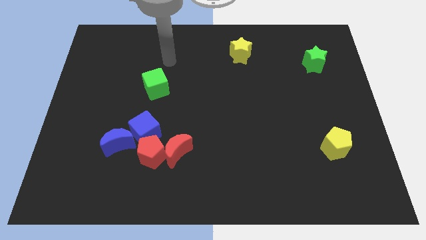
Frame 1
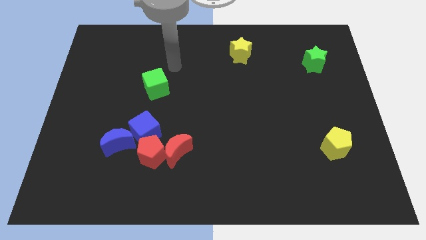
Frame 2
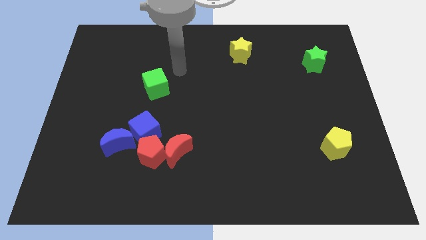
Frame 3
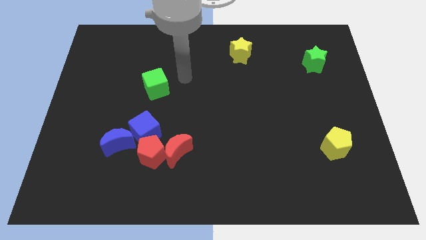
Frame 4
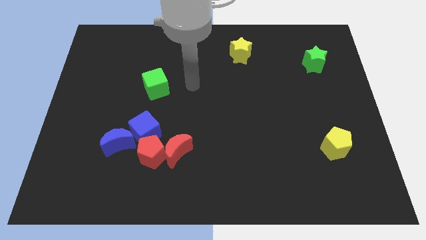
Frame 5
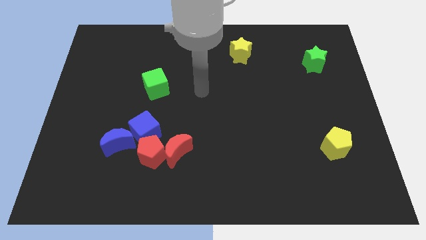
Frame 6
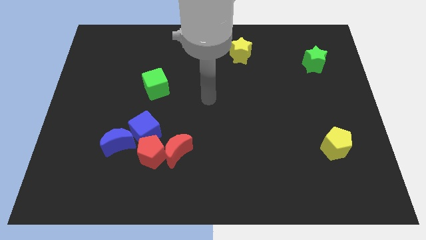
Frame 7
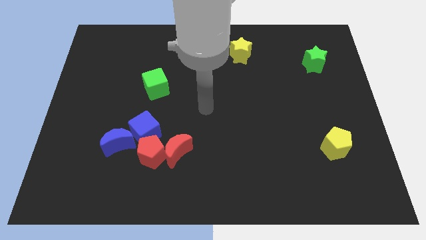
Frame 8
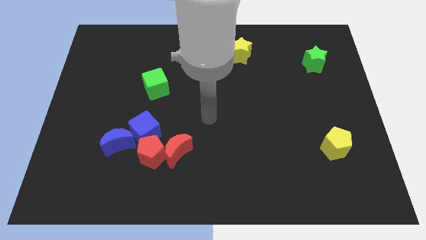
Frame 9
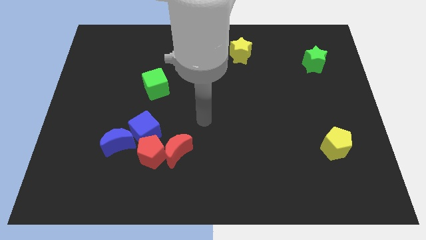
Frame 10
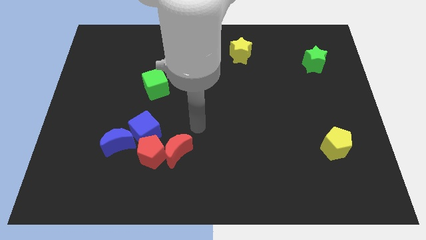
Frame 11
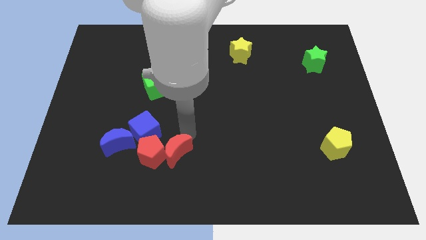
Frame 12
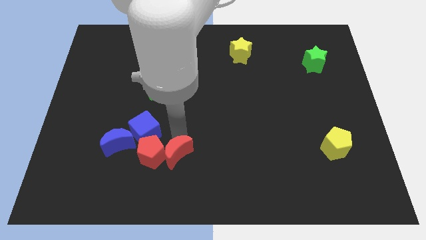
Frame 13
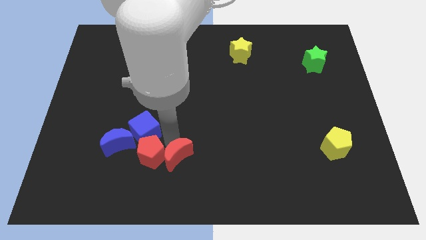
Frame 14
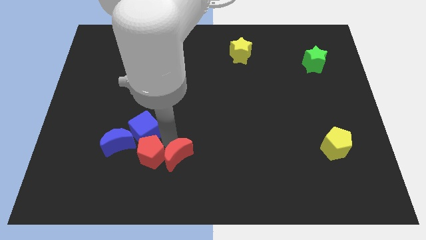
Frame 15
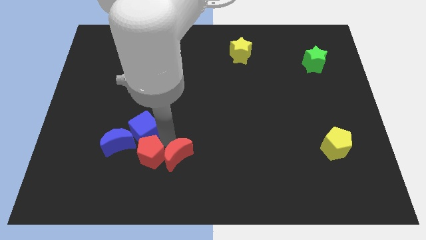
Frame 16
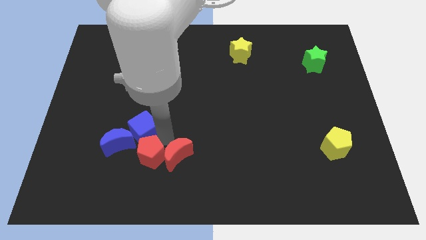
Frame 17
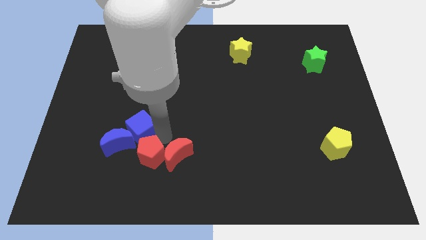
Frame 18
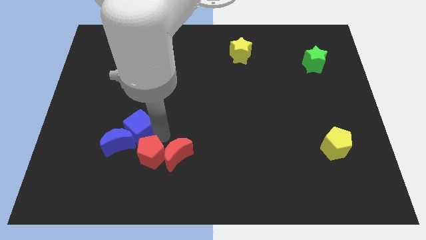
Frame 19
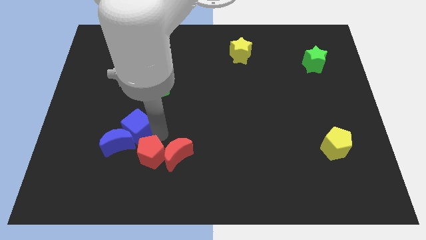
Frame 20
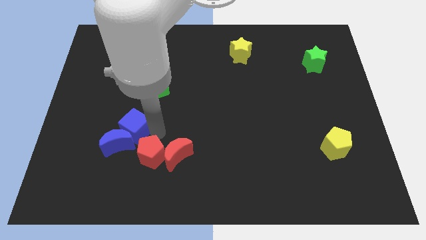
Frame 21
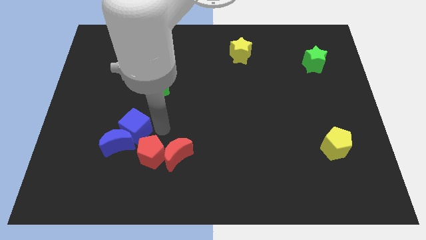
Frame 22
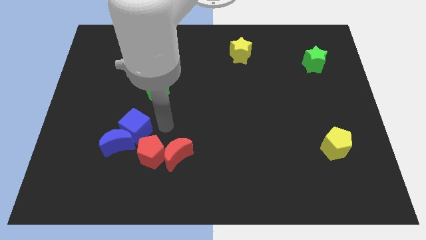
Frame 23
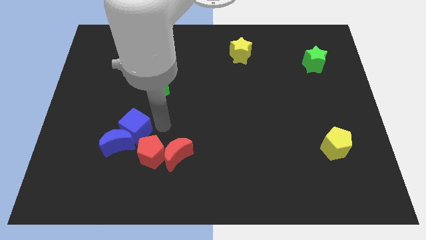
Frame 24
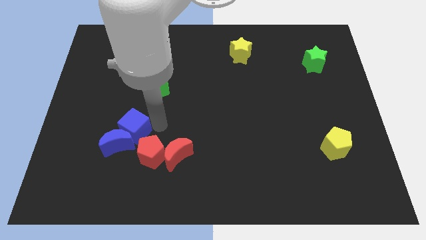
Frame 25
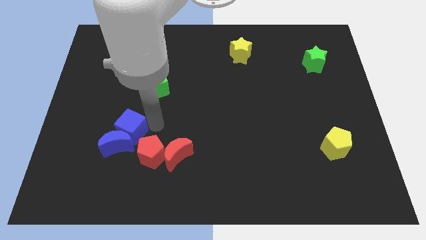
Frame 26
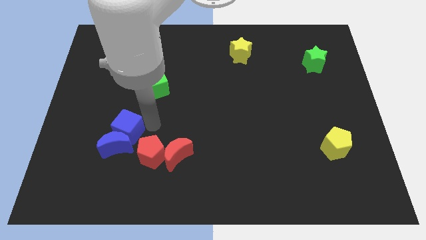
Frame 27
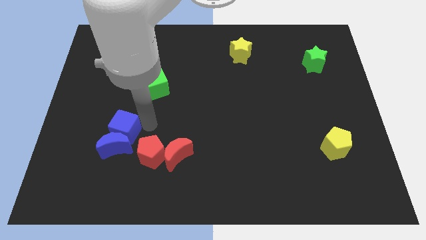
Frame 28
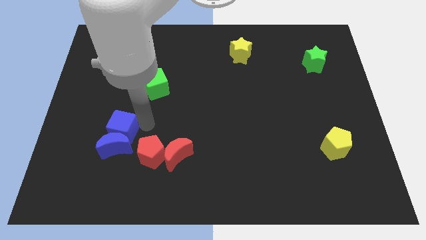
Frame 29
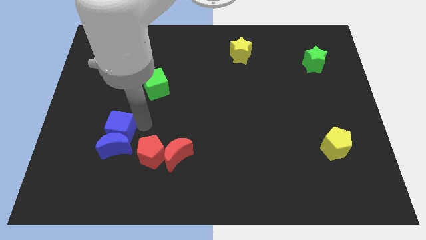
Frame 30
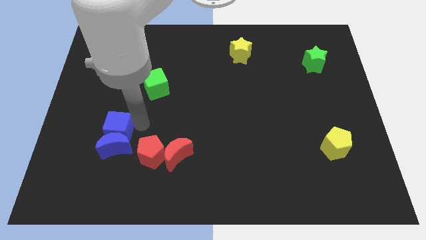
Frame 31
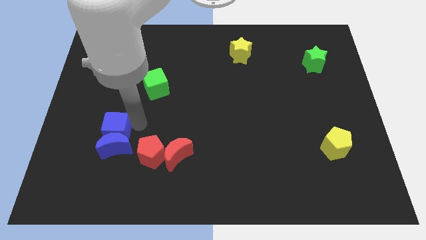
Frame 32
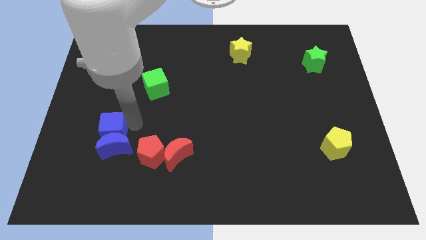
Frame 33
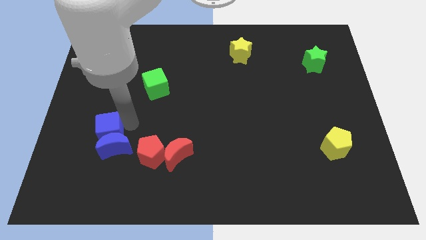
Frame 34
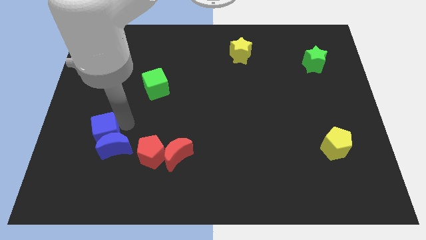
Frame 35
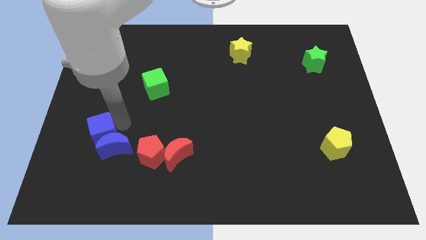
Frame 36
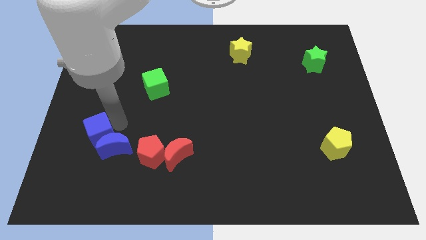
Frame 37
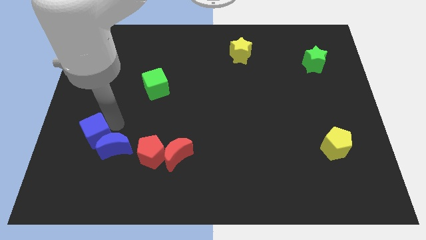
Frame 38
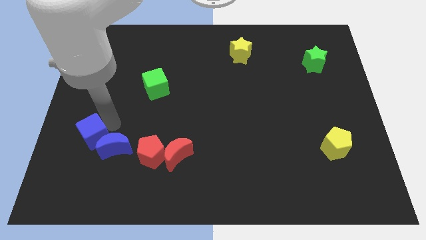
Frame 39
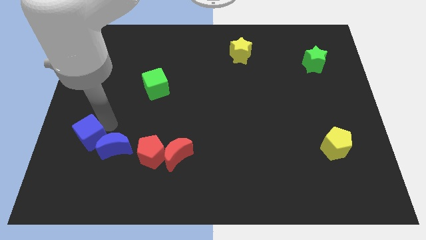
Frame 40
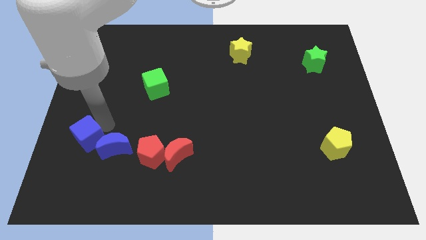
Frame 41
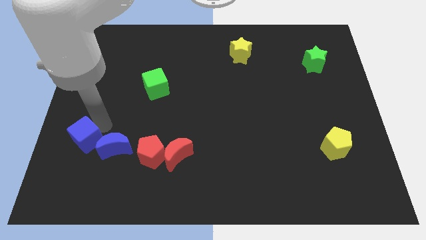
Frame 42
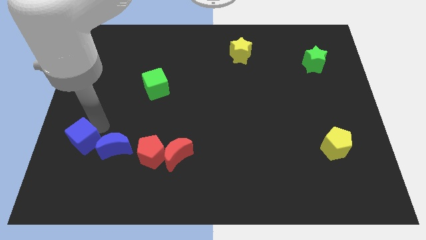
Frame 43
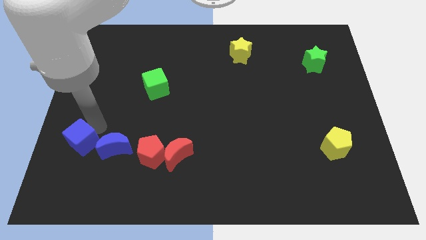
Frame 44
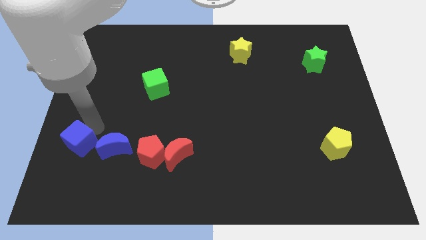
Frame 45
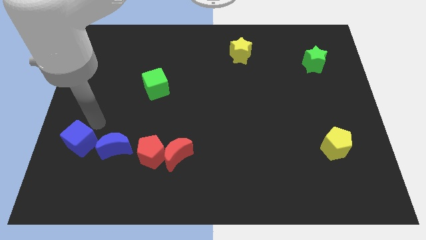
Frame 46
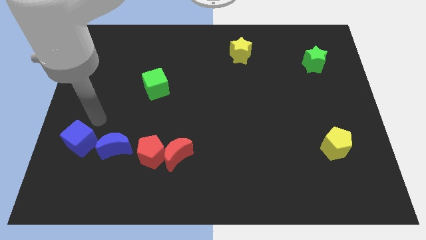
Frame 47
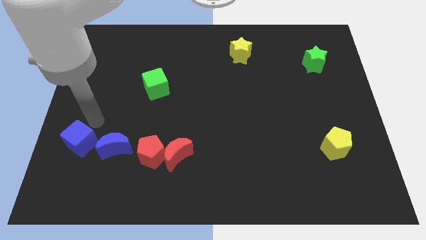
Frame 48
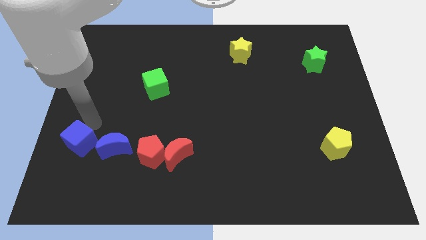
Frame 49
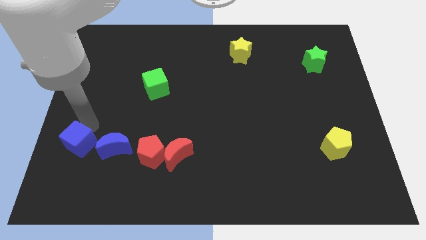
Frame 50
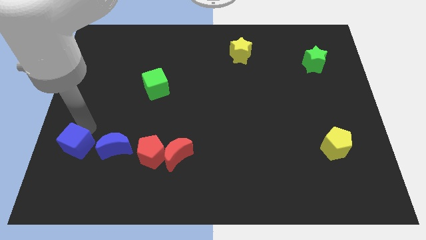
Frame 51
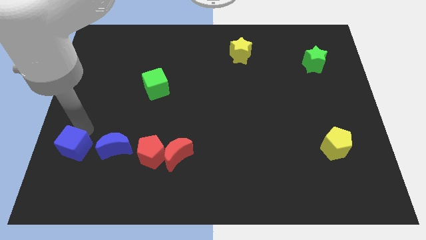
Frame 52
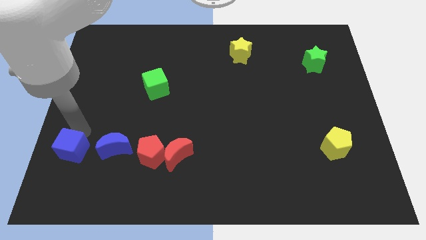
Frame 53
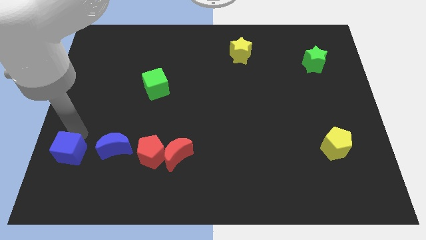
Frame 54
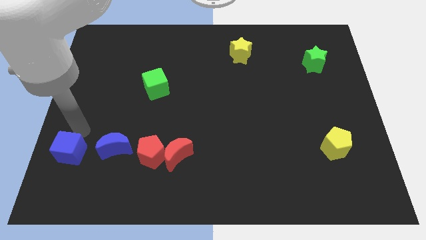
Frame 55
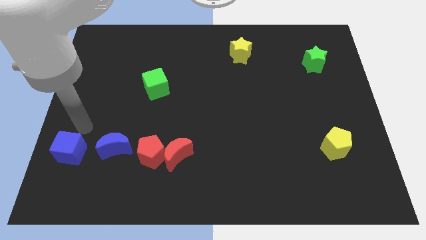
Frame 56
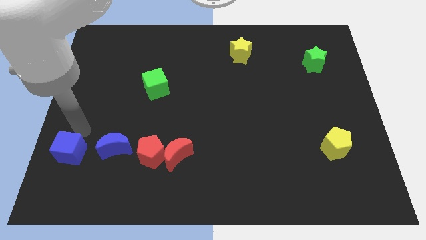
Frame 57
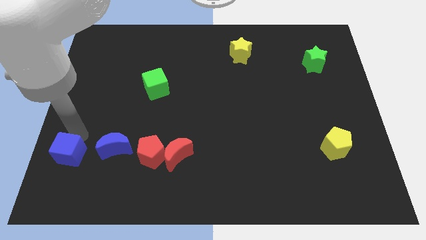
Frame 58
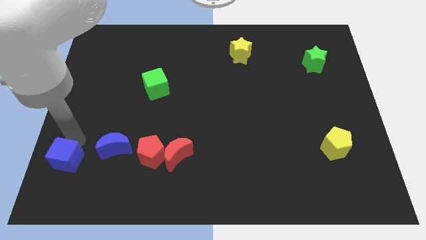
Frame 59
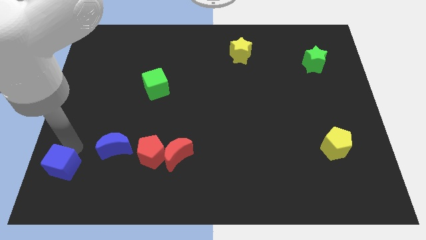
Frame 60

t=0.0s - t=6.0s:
put the blue cube to the bottom left corner
